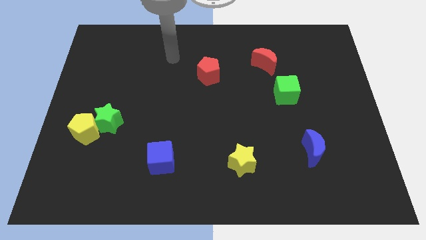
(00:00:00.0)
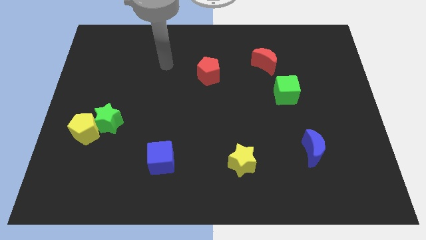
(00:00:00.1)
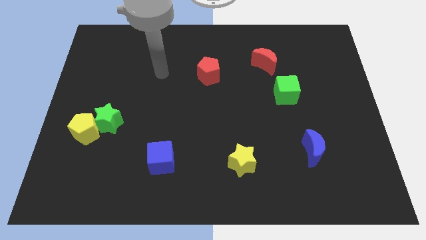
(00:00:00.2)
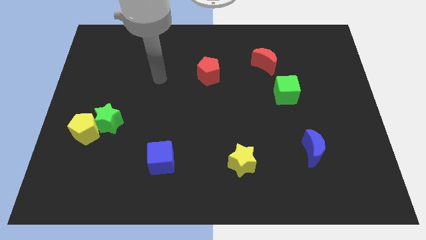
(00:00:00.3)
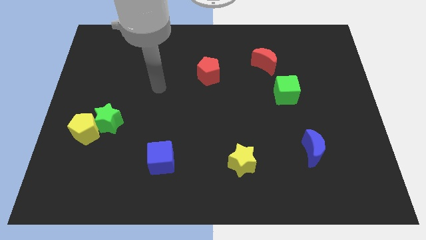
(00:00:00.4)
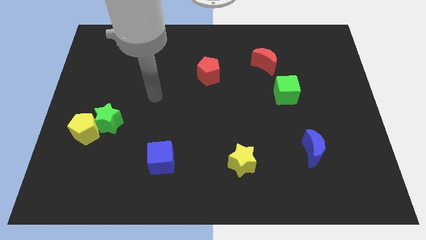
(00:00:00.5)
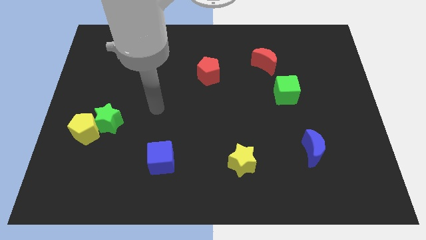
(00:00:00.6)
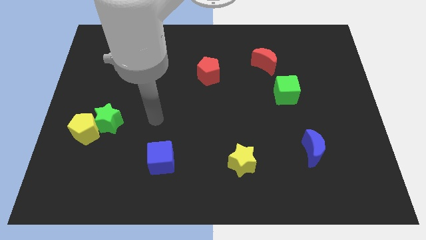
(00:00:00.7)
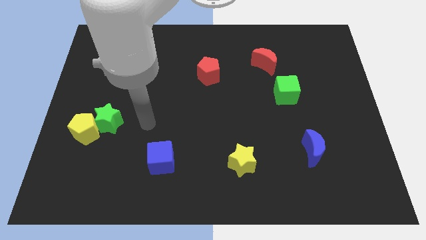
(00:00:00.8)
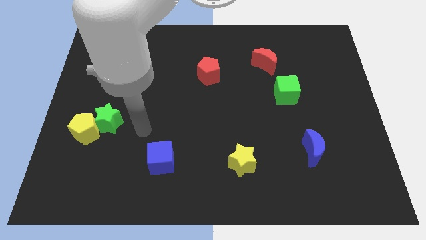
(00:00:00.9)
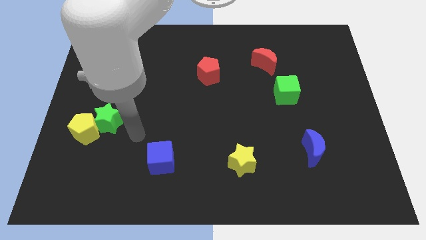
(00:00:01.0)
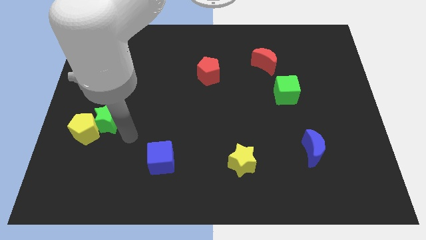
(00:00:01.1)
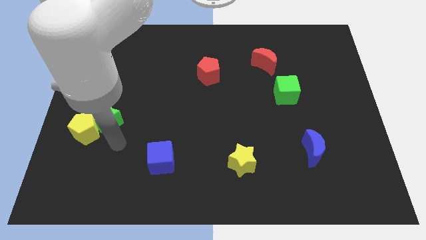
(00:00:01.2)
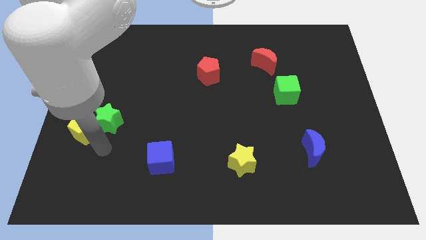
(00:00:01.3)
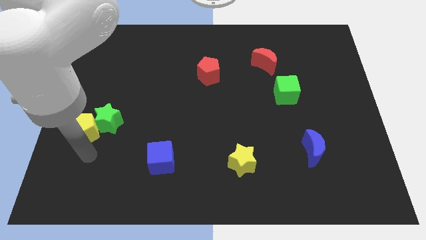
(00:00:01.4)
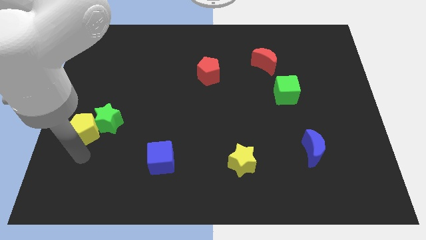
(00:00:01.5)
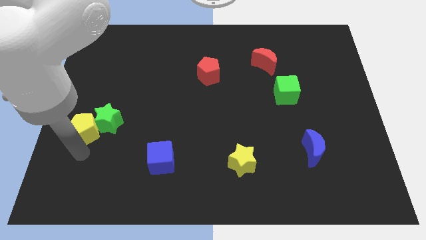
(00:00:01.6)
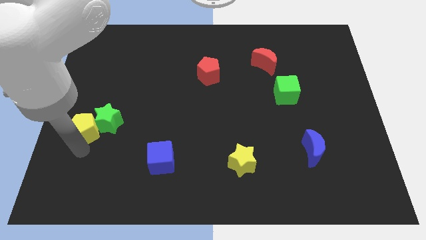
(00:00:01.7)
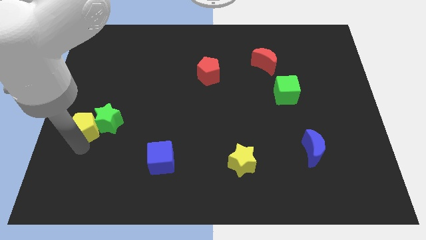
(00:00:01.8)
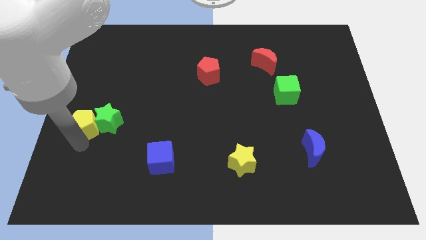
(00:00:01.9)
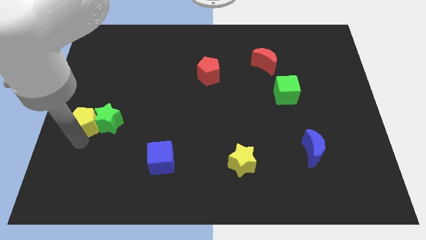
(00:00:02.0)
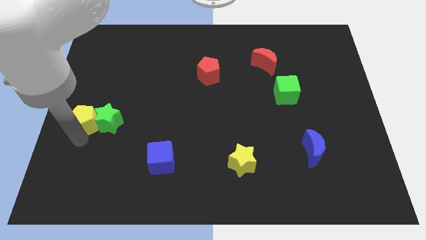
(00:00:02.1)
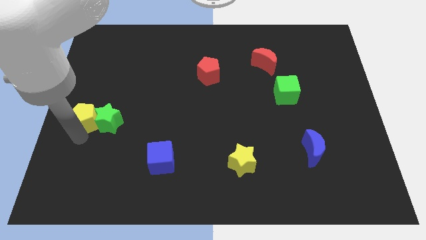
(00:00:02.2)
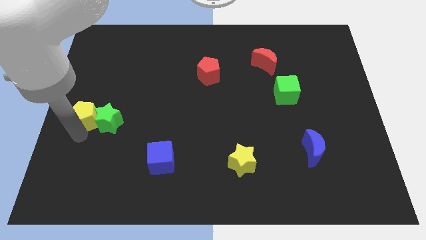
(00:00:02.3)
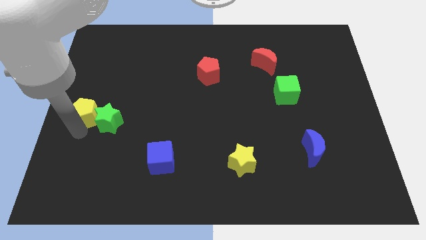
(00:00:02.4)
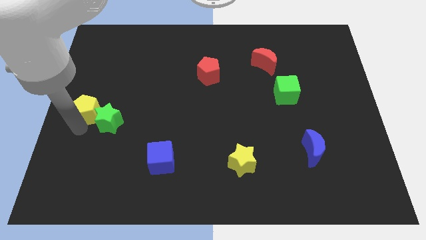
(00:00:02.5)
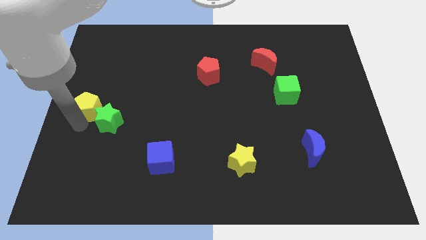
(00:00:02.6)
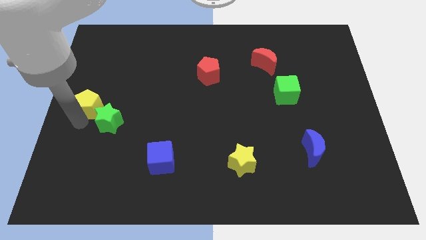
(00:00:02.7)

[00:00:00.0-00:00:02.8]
move the yellow pentagon a bit upwards

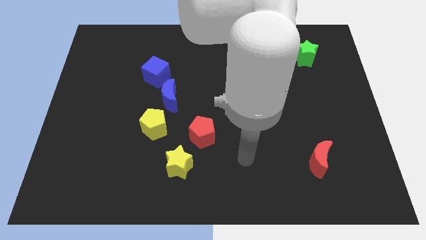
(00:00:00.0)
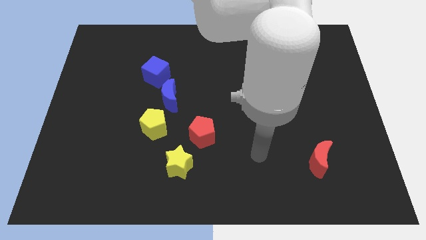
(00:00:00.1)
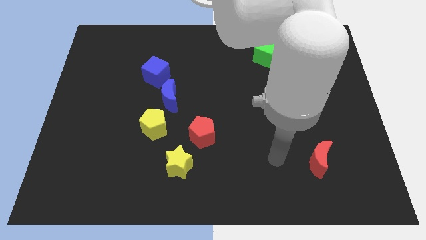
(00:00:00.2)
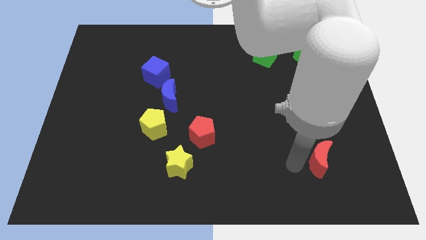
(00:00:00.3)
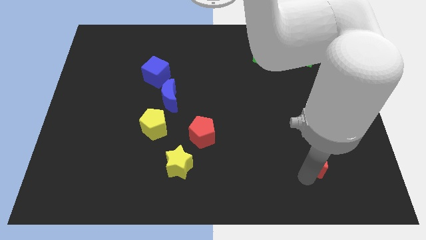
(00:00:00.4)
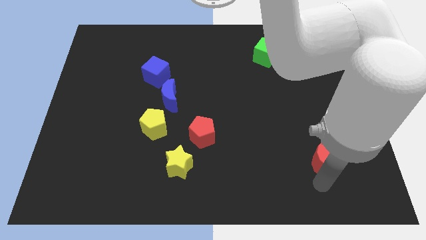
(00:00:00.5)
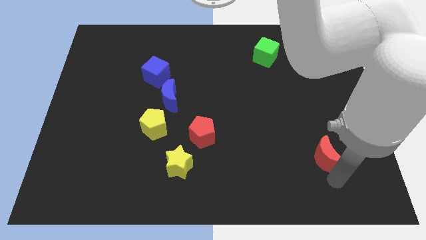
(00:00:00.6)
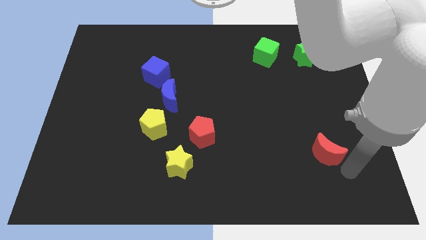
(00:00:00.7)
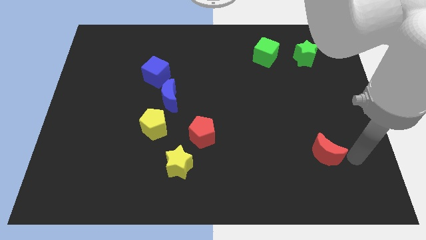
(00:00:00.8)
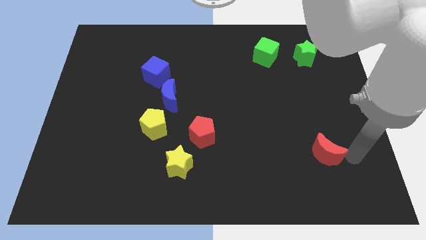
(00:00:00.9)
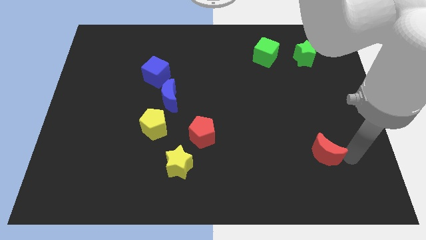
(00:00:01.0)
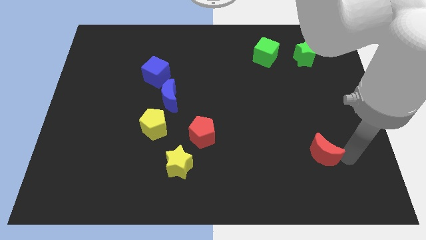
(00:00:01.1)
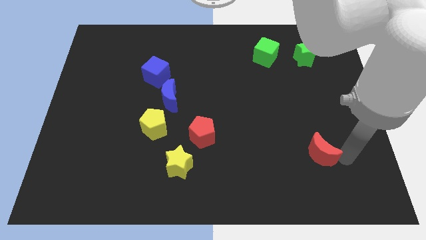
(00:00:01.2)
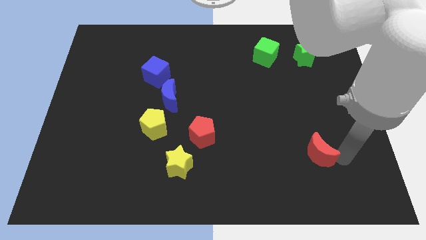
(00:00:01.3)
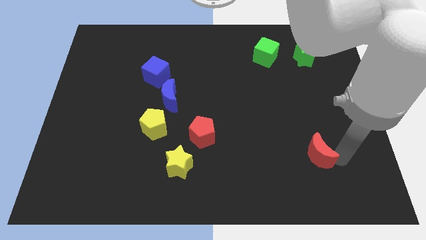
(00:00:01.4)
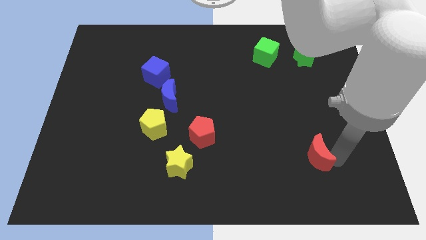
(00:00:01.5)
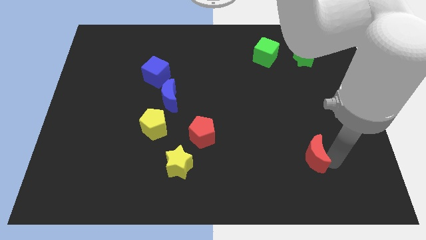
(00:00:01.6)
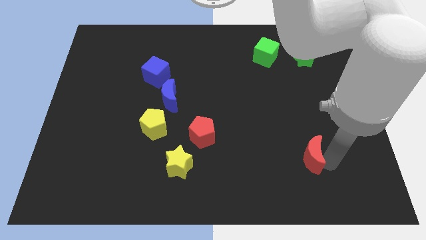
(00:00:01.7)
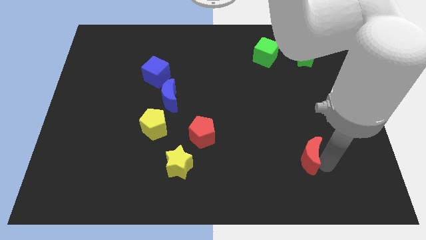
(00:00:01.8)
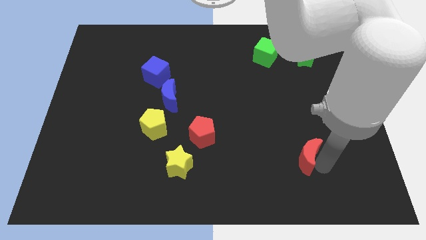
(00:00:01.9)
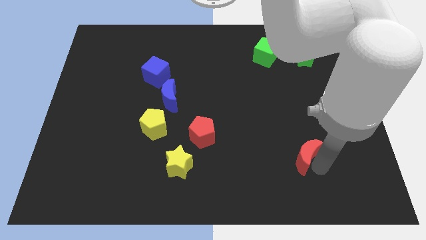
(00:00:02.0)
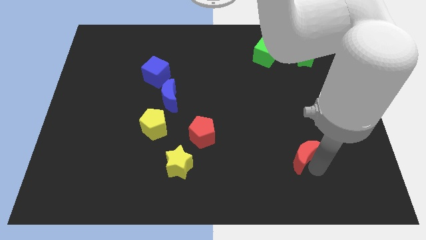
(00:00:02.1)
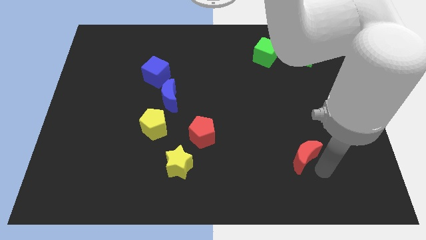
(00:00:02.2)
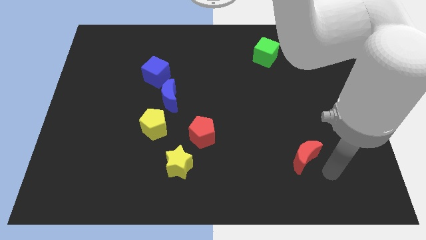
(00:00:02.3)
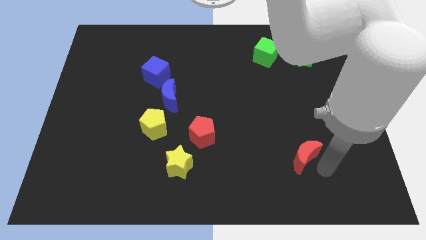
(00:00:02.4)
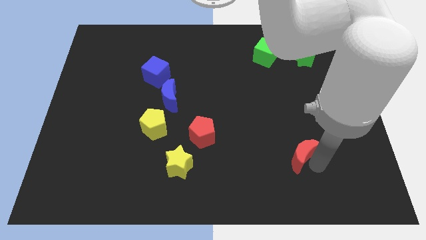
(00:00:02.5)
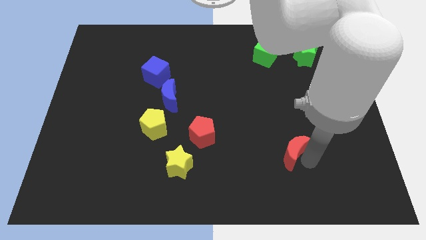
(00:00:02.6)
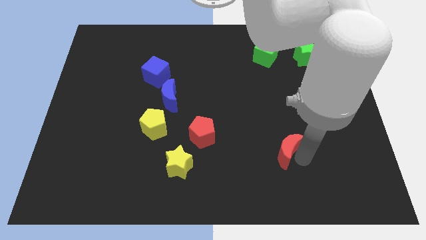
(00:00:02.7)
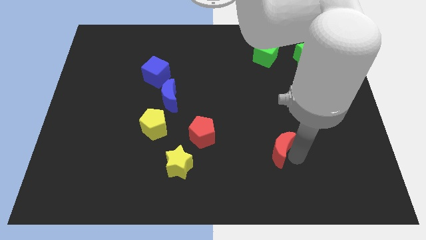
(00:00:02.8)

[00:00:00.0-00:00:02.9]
move the red moon up and then to the left a little

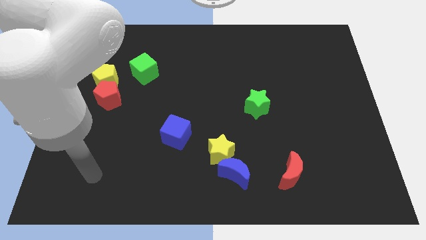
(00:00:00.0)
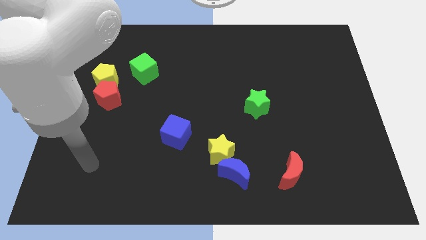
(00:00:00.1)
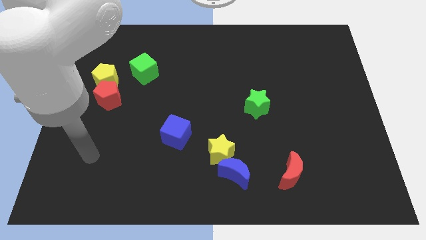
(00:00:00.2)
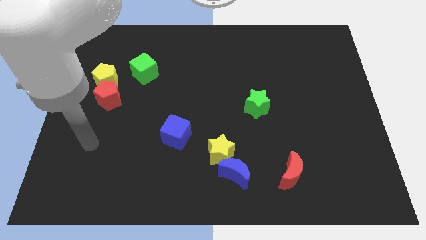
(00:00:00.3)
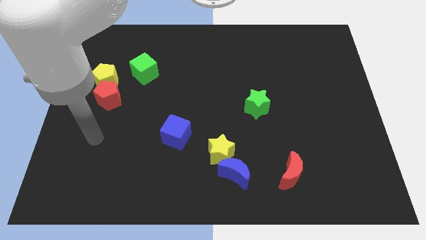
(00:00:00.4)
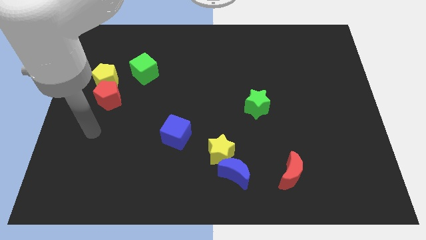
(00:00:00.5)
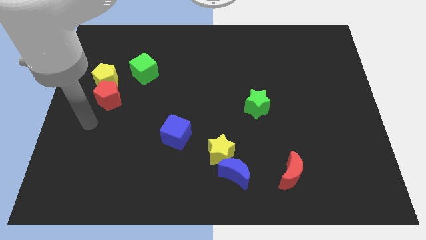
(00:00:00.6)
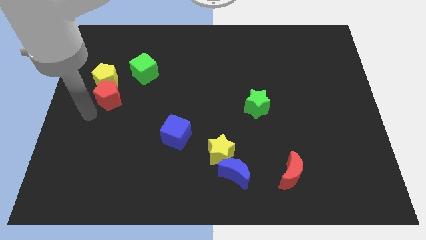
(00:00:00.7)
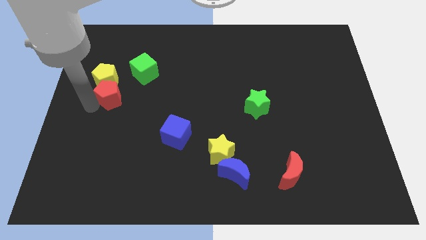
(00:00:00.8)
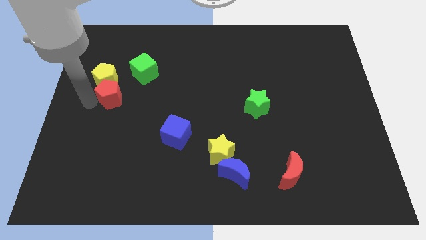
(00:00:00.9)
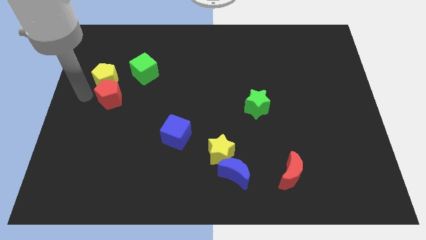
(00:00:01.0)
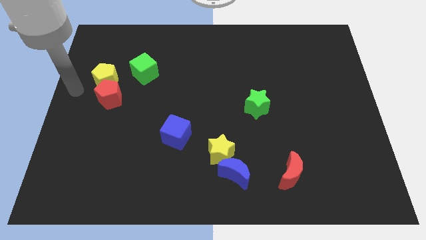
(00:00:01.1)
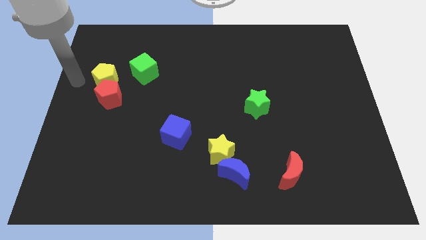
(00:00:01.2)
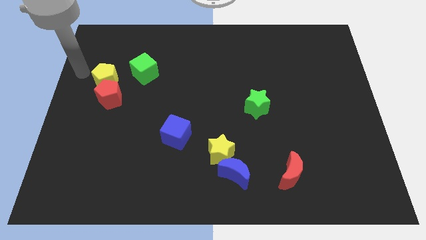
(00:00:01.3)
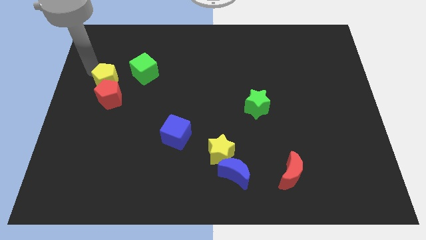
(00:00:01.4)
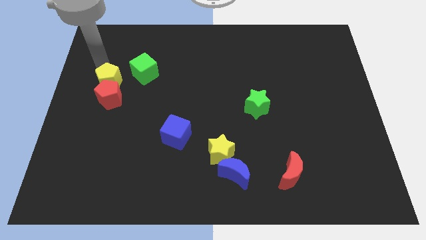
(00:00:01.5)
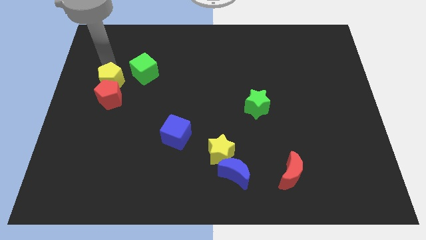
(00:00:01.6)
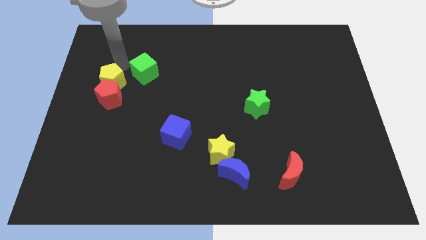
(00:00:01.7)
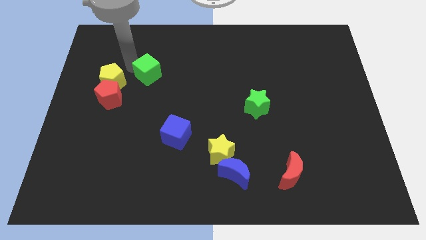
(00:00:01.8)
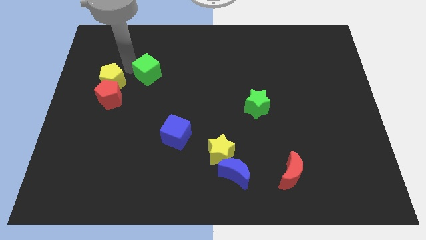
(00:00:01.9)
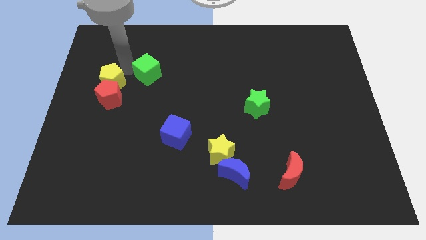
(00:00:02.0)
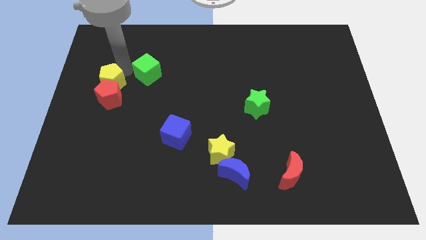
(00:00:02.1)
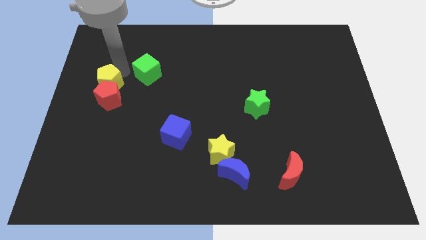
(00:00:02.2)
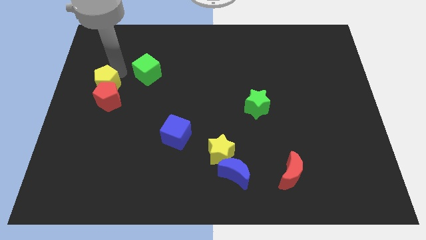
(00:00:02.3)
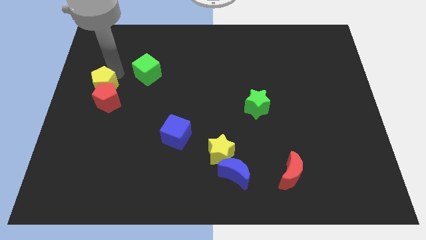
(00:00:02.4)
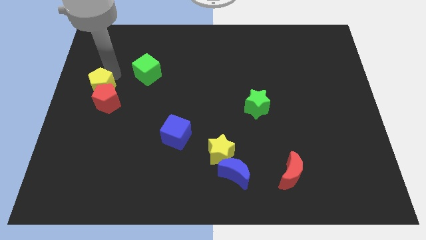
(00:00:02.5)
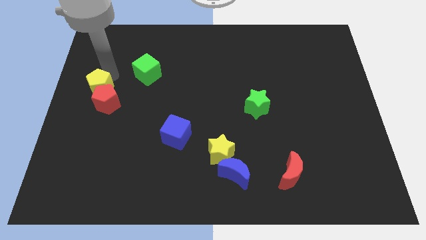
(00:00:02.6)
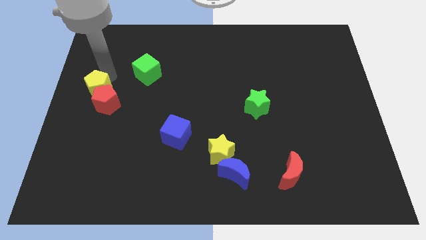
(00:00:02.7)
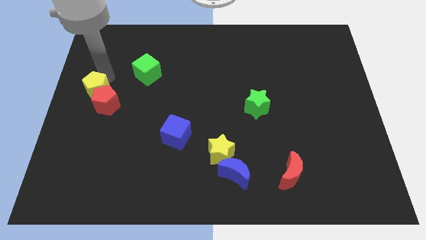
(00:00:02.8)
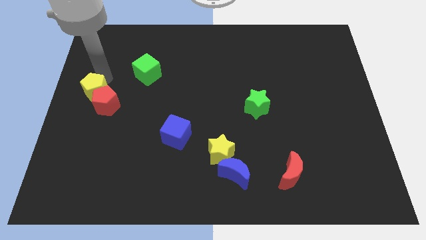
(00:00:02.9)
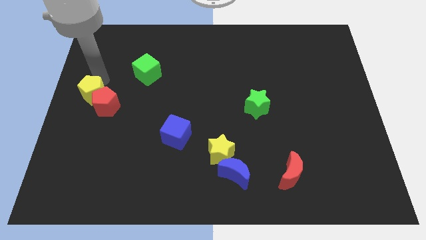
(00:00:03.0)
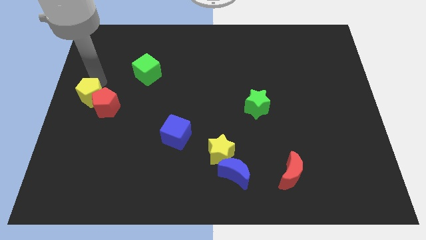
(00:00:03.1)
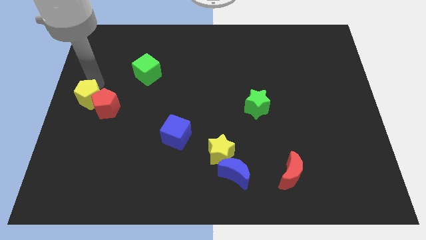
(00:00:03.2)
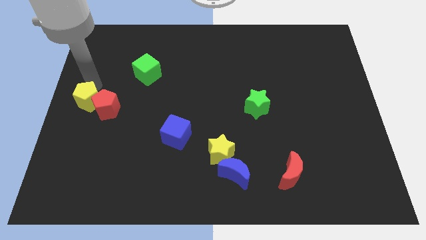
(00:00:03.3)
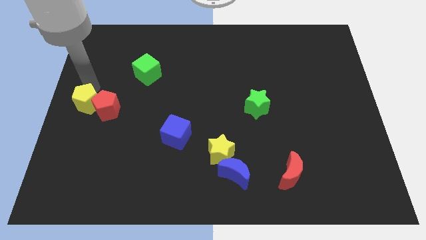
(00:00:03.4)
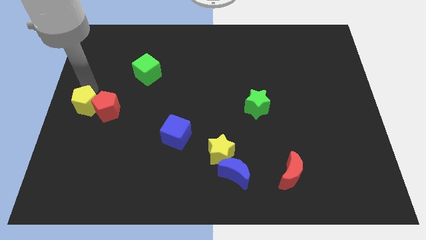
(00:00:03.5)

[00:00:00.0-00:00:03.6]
push the yellow pentagon down slightly
